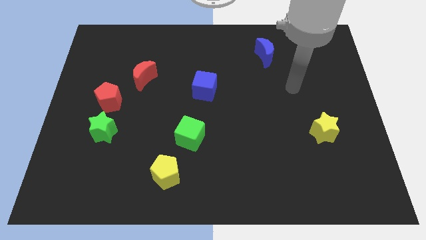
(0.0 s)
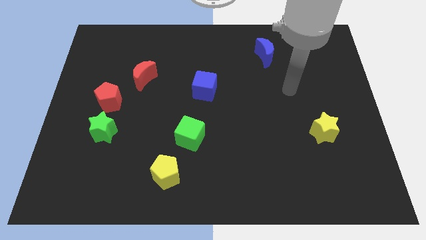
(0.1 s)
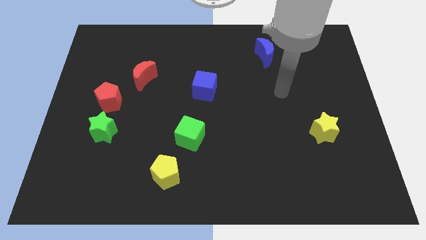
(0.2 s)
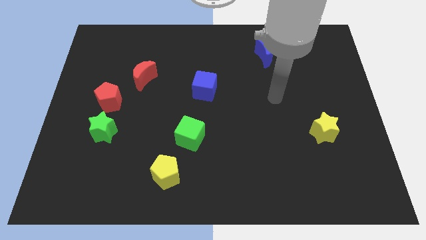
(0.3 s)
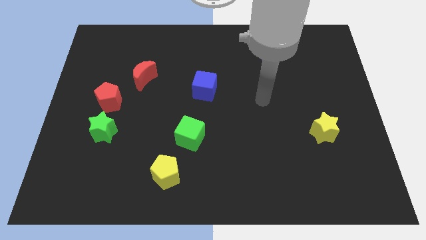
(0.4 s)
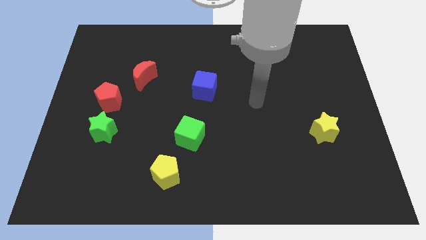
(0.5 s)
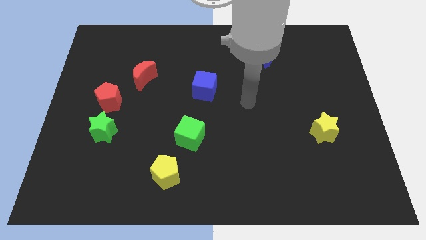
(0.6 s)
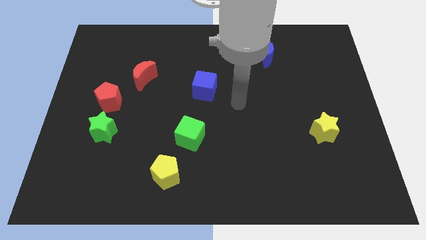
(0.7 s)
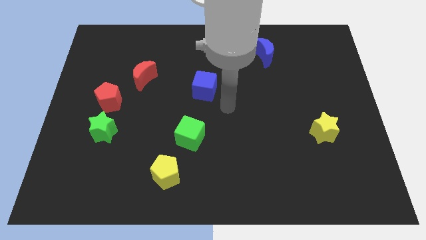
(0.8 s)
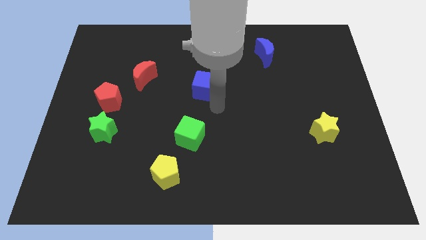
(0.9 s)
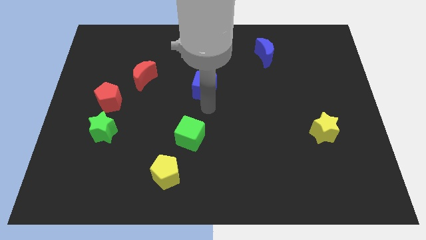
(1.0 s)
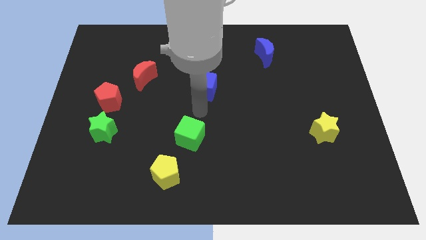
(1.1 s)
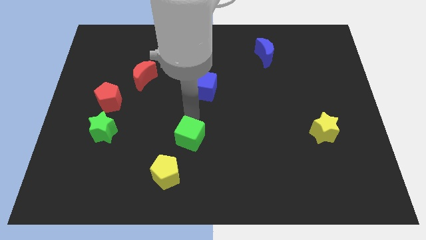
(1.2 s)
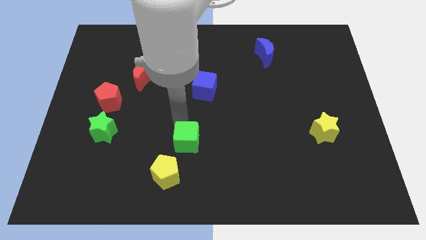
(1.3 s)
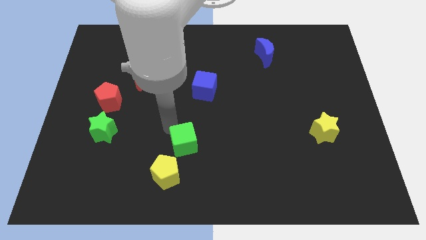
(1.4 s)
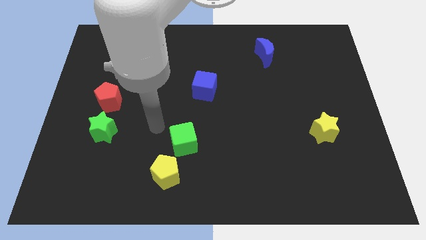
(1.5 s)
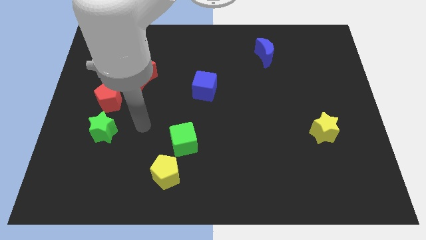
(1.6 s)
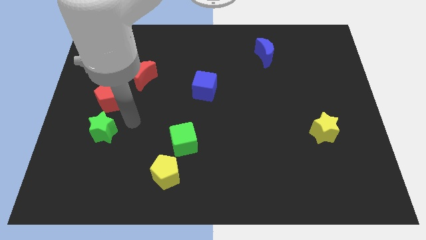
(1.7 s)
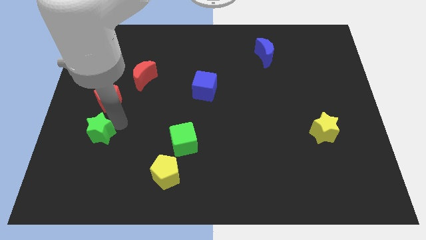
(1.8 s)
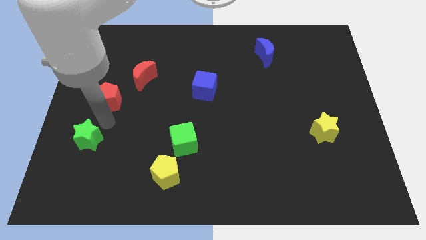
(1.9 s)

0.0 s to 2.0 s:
move the red pentagon away from the green star

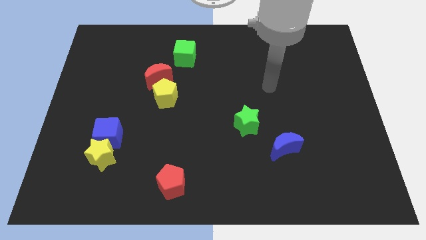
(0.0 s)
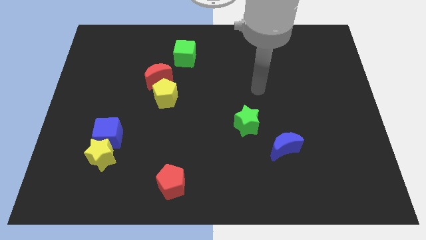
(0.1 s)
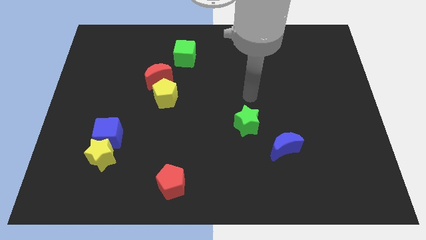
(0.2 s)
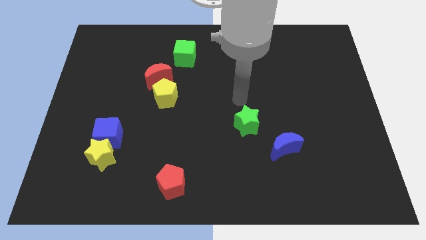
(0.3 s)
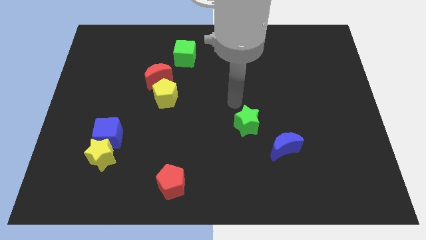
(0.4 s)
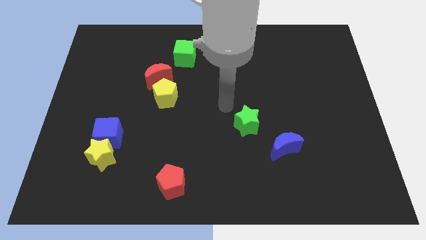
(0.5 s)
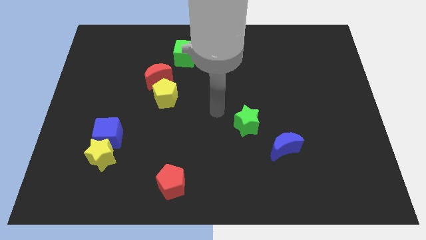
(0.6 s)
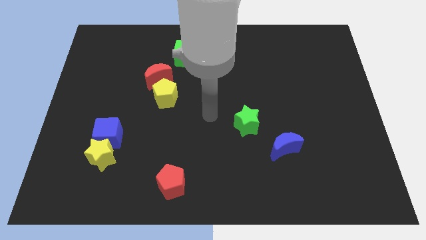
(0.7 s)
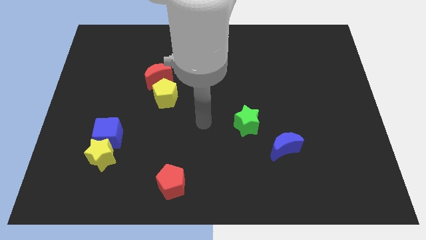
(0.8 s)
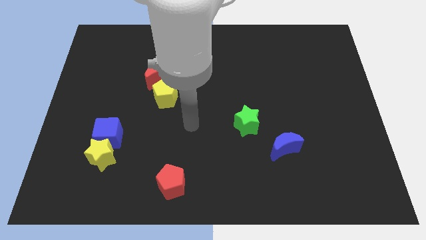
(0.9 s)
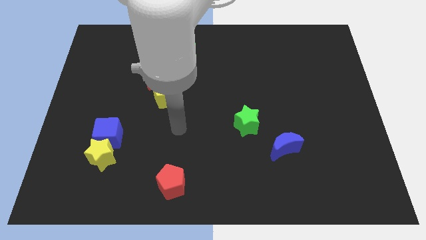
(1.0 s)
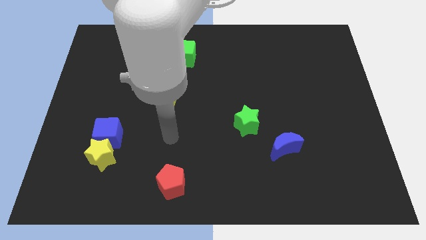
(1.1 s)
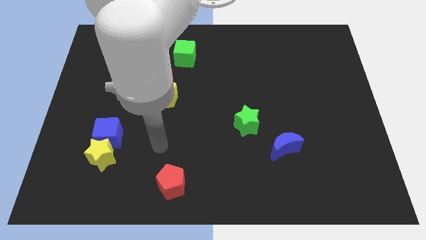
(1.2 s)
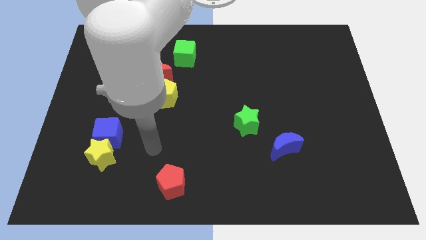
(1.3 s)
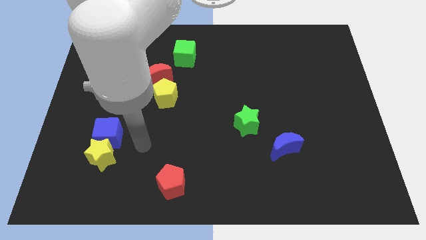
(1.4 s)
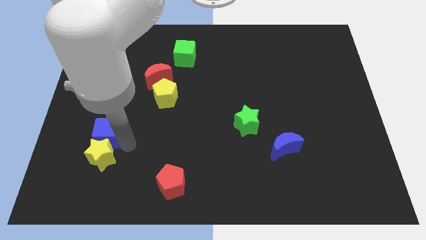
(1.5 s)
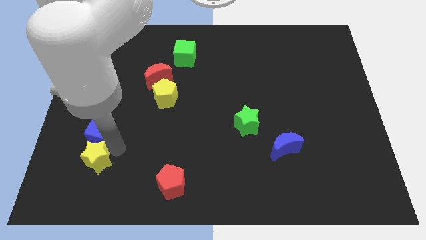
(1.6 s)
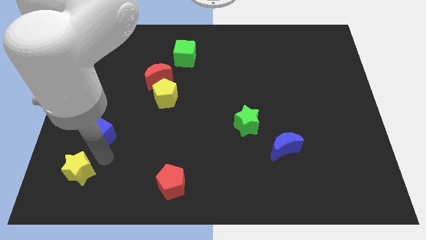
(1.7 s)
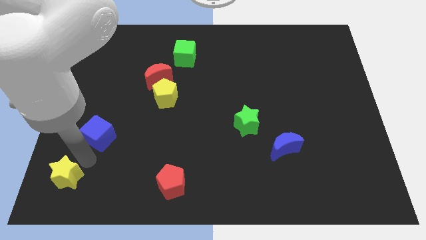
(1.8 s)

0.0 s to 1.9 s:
separate the blue cube from the yellow star

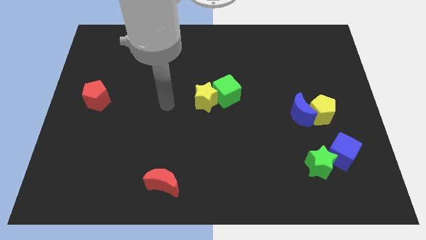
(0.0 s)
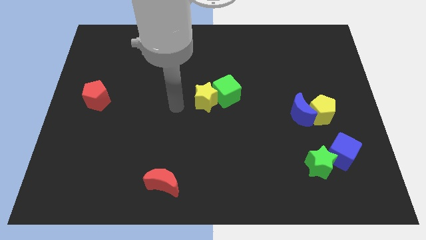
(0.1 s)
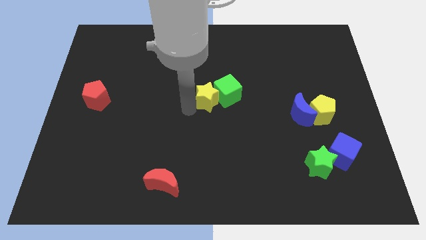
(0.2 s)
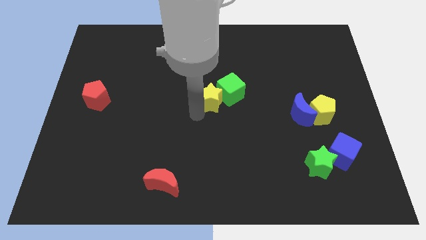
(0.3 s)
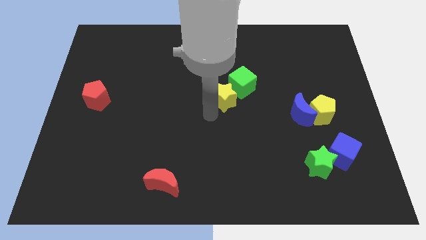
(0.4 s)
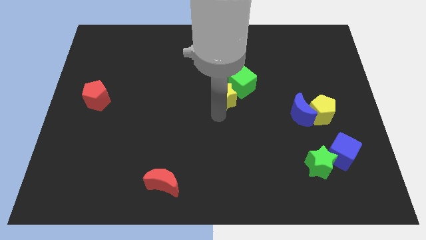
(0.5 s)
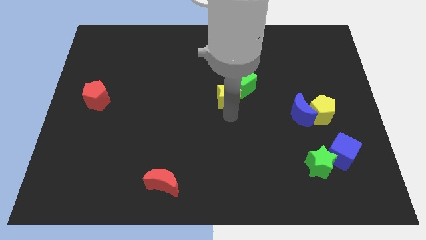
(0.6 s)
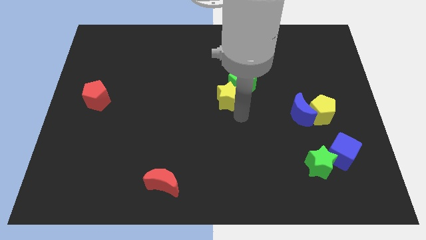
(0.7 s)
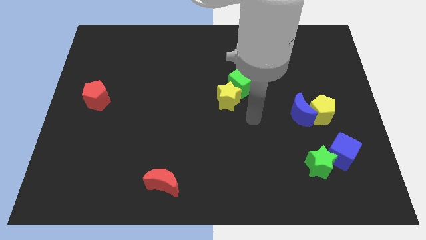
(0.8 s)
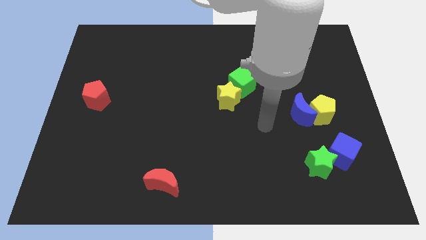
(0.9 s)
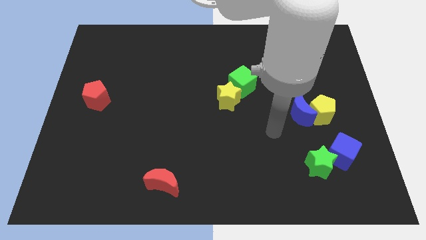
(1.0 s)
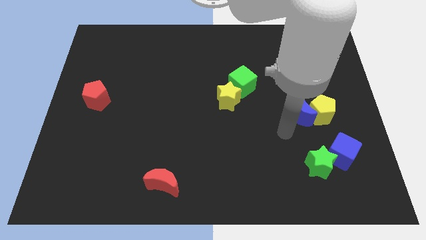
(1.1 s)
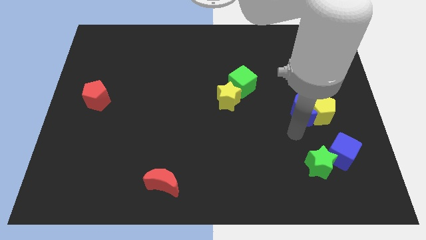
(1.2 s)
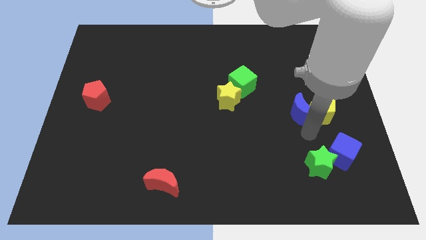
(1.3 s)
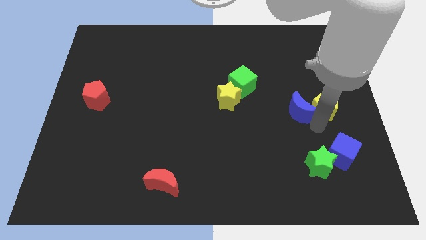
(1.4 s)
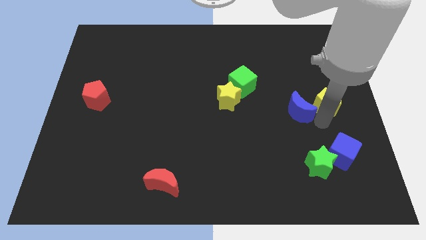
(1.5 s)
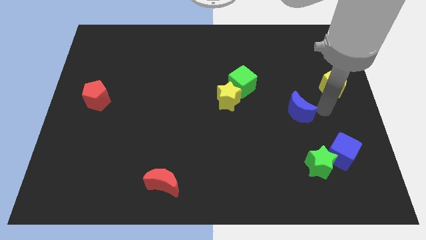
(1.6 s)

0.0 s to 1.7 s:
pull the blue moon apart from the yellow pentagon

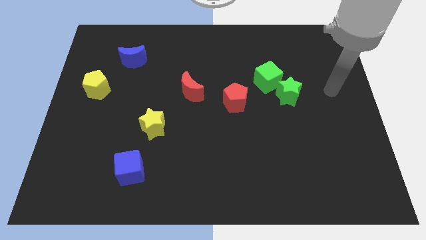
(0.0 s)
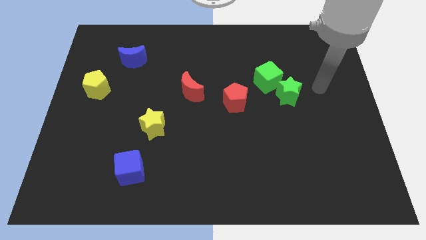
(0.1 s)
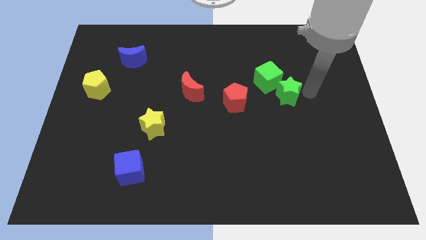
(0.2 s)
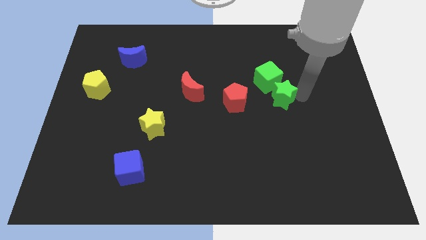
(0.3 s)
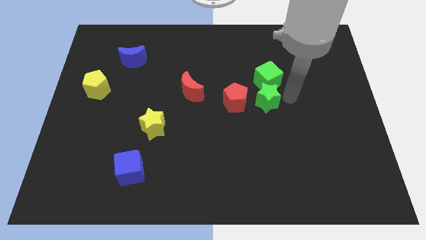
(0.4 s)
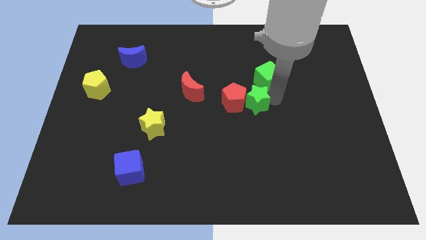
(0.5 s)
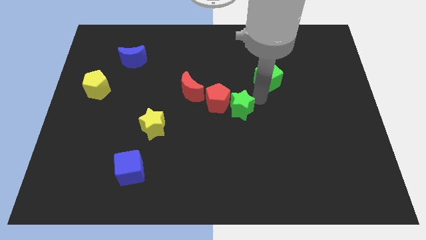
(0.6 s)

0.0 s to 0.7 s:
separate the green cube from the green star

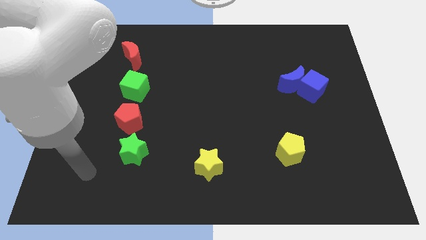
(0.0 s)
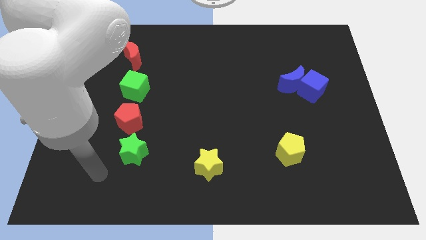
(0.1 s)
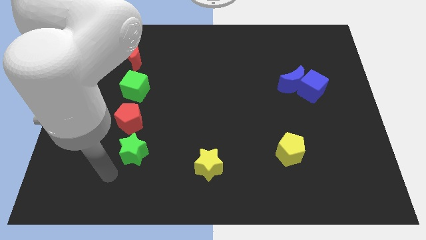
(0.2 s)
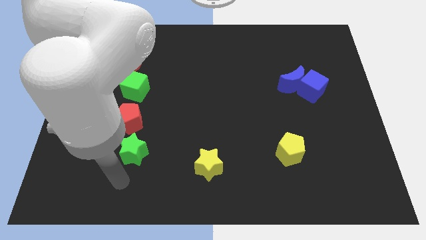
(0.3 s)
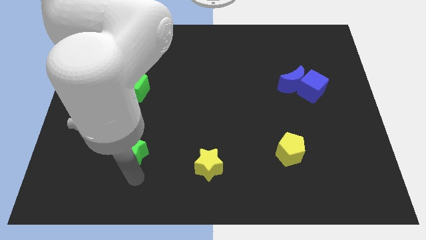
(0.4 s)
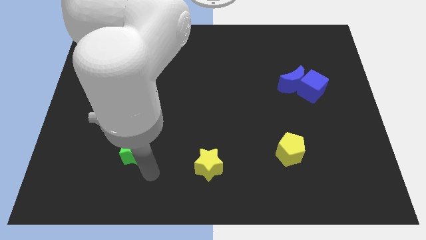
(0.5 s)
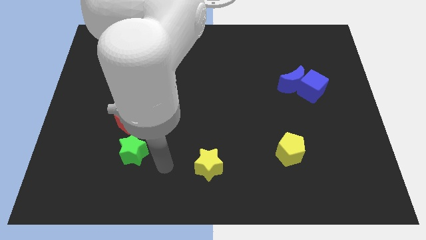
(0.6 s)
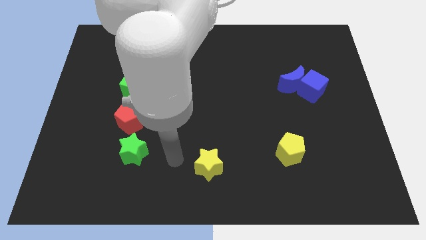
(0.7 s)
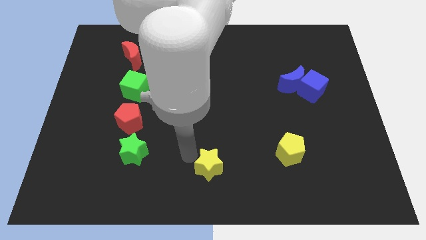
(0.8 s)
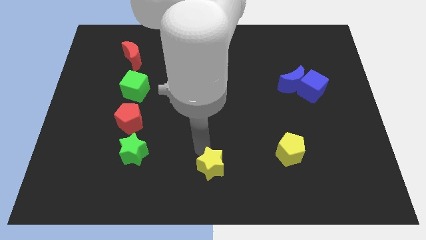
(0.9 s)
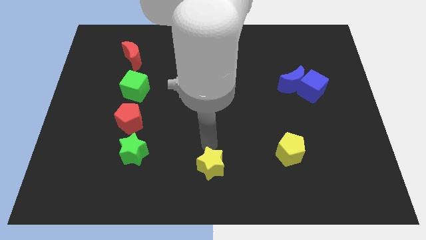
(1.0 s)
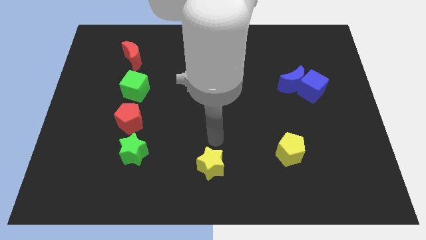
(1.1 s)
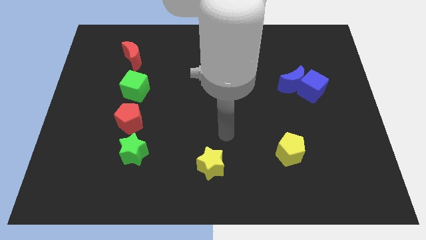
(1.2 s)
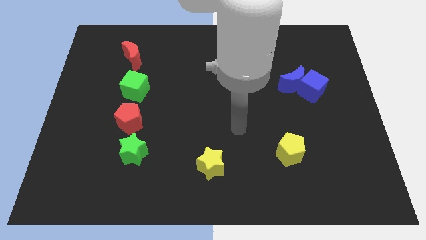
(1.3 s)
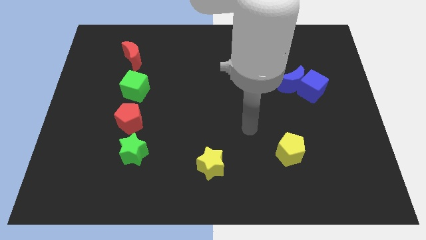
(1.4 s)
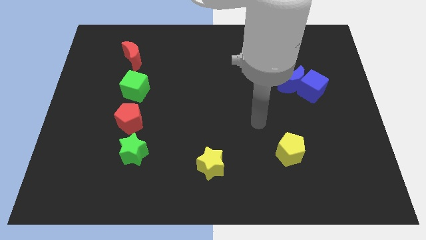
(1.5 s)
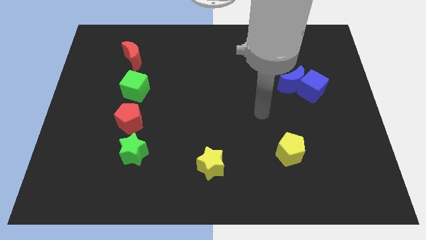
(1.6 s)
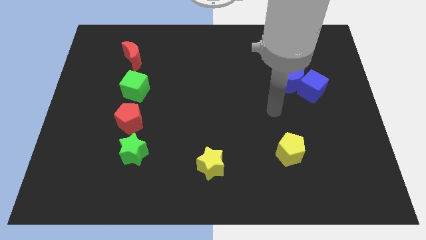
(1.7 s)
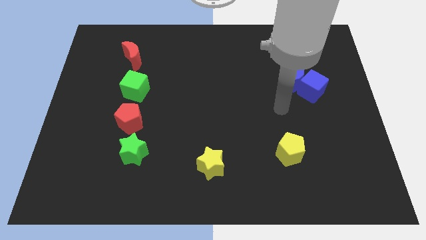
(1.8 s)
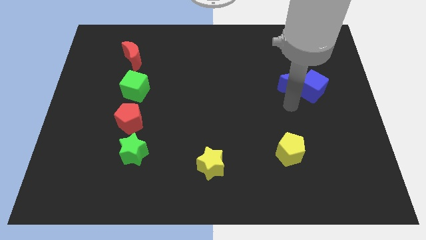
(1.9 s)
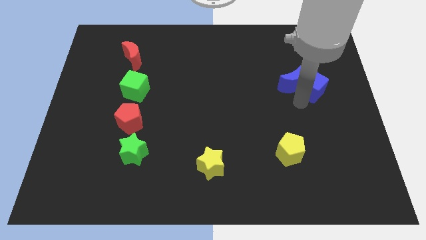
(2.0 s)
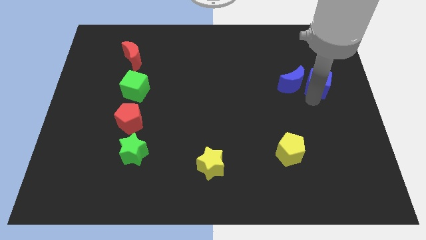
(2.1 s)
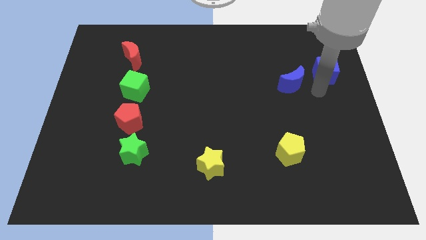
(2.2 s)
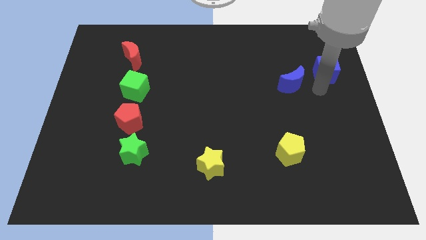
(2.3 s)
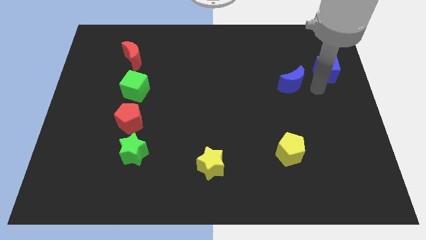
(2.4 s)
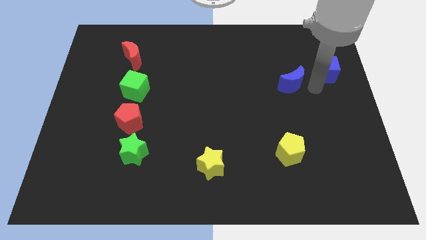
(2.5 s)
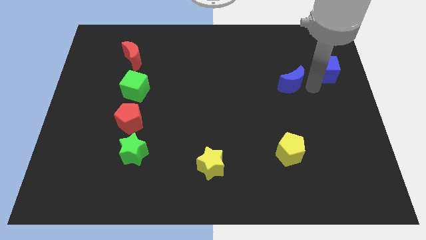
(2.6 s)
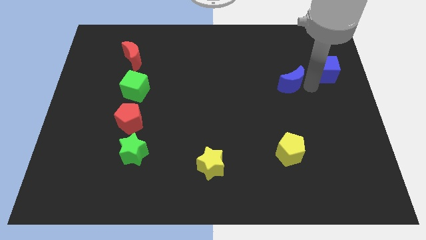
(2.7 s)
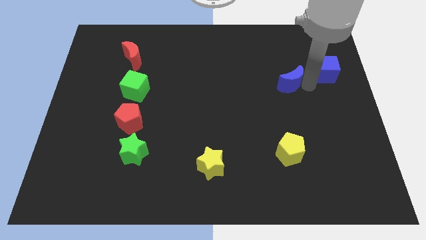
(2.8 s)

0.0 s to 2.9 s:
move the blue moon away from the blue cube

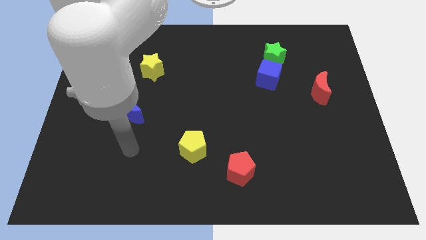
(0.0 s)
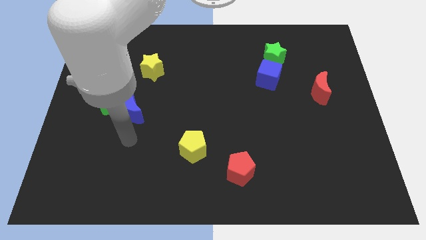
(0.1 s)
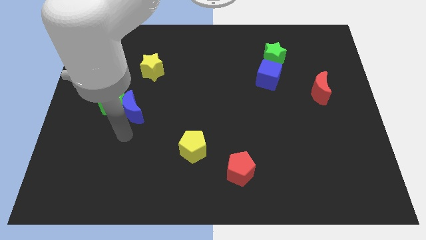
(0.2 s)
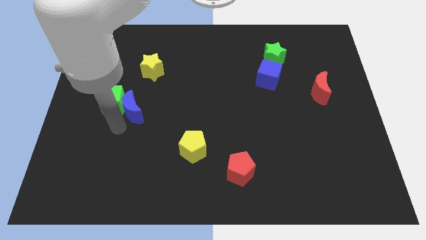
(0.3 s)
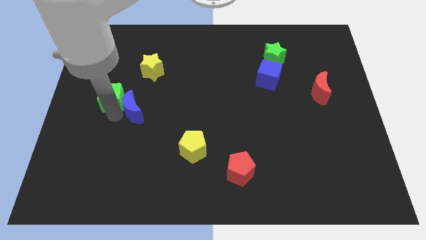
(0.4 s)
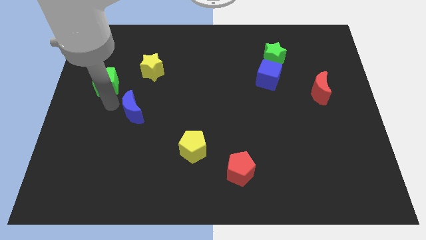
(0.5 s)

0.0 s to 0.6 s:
separate the blue moon from the green cube
